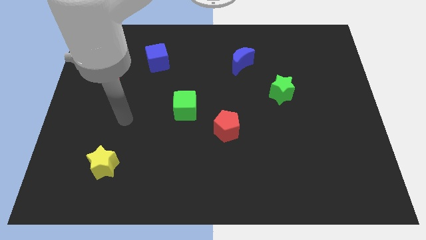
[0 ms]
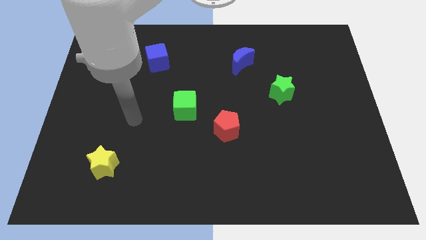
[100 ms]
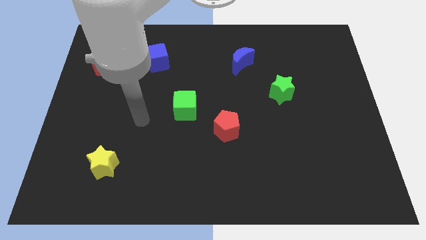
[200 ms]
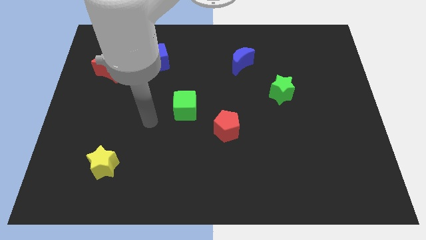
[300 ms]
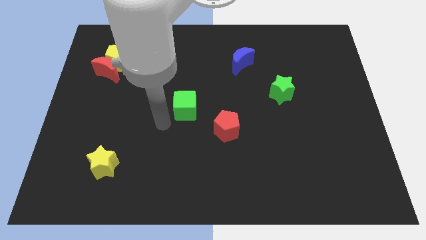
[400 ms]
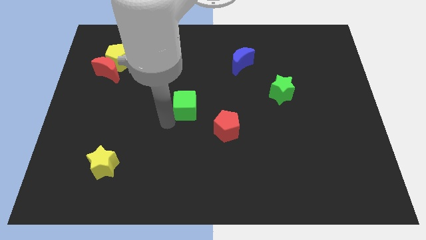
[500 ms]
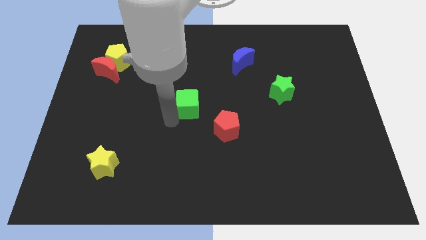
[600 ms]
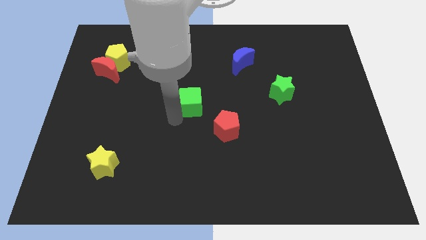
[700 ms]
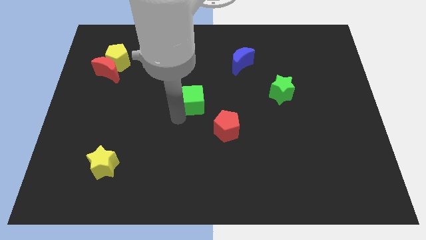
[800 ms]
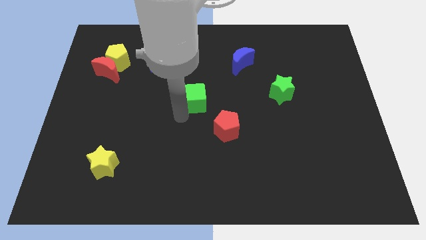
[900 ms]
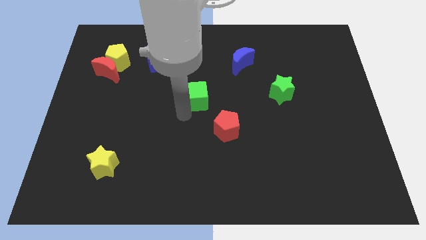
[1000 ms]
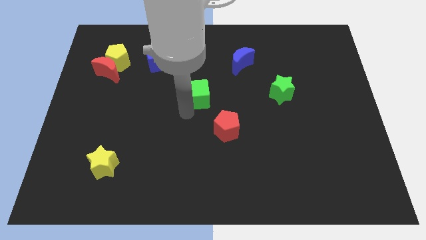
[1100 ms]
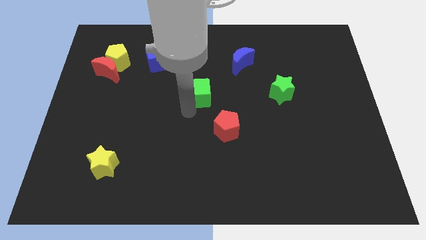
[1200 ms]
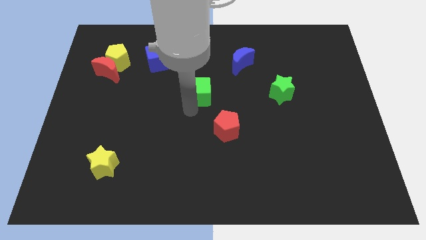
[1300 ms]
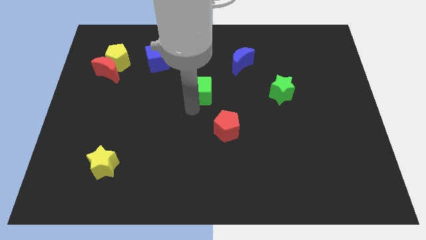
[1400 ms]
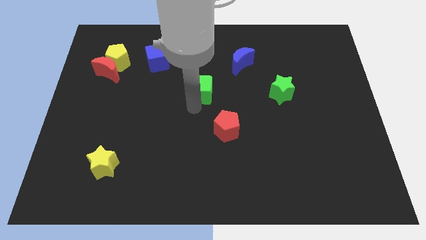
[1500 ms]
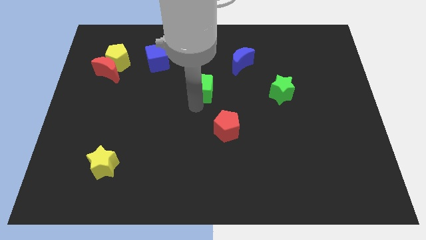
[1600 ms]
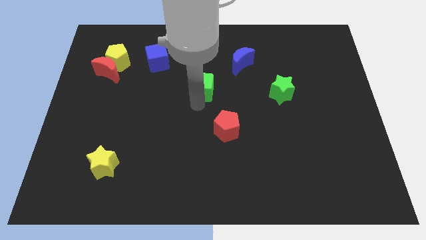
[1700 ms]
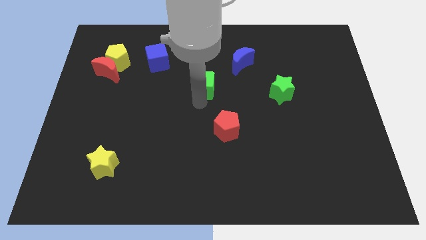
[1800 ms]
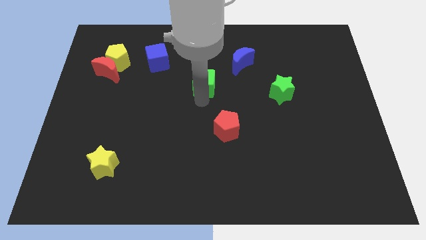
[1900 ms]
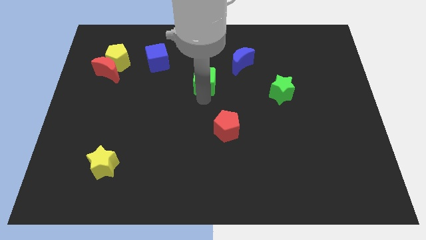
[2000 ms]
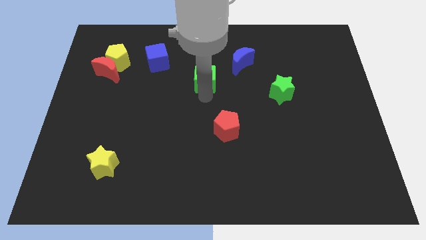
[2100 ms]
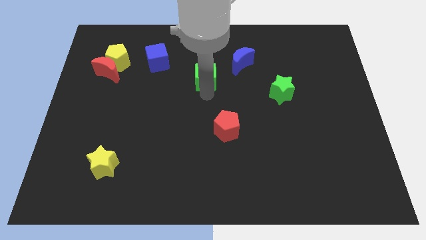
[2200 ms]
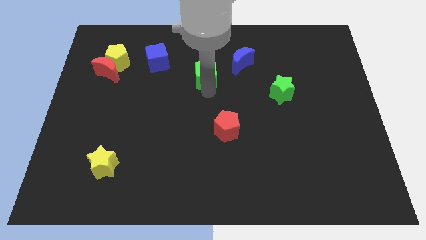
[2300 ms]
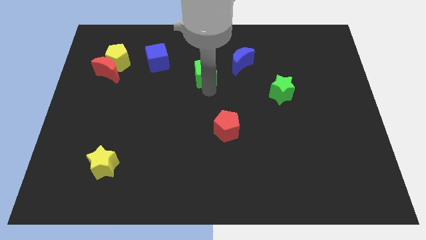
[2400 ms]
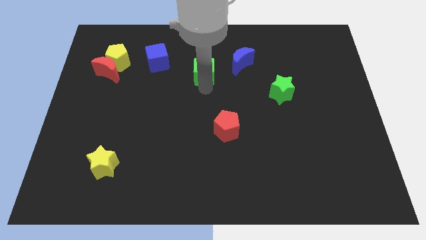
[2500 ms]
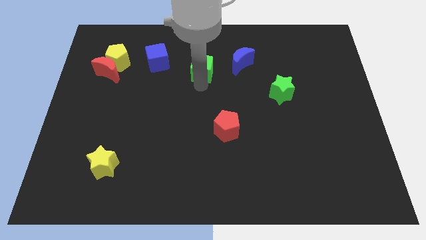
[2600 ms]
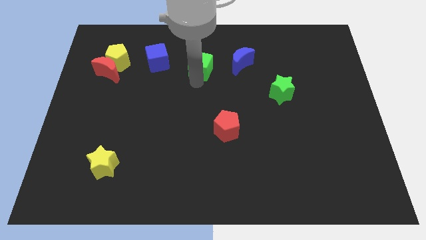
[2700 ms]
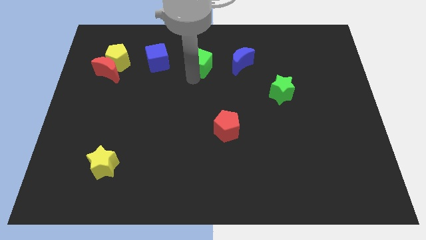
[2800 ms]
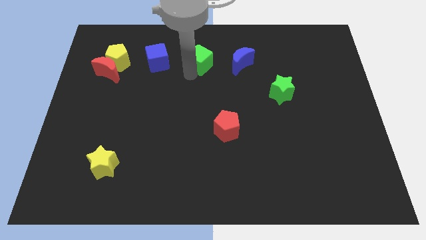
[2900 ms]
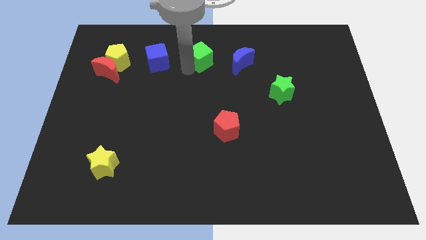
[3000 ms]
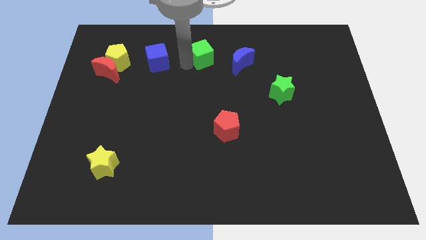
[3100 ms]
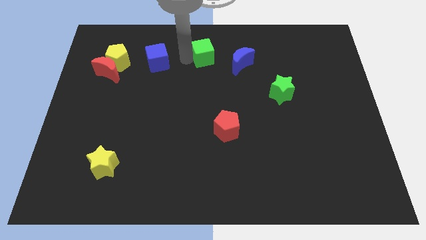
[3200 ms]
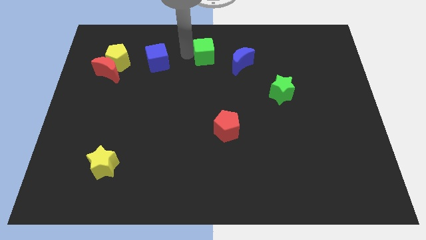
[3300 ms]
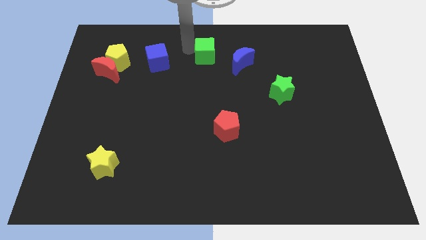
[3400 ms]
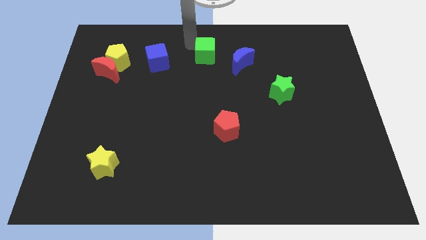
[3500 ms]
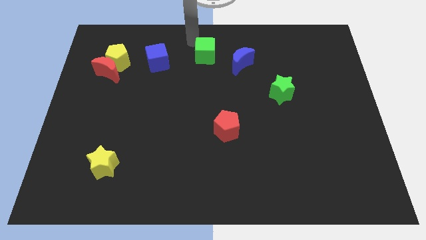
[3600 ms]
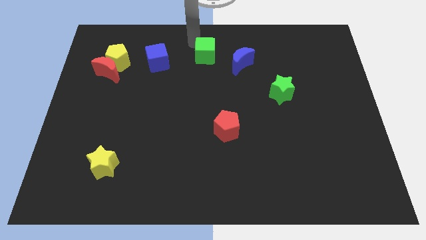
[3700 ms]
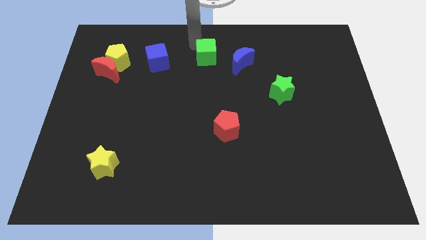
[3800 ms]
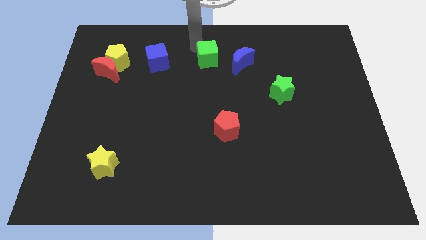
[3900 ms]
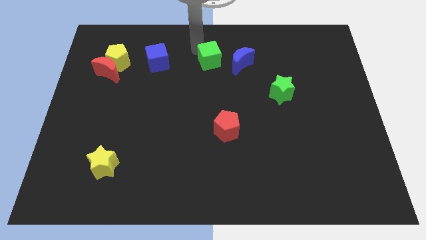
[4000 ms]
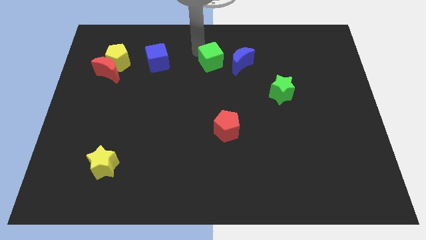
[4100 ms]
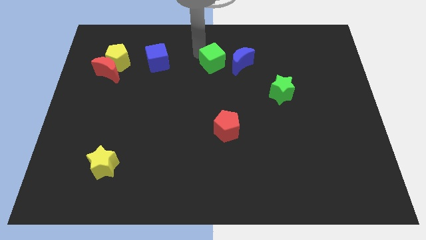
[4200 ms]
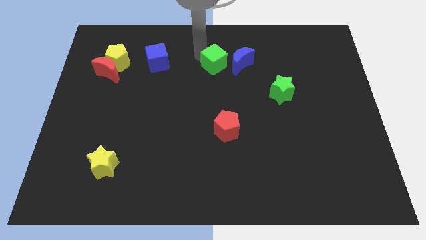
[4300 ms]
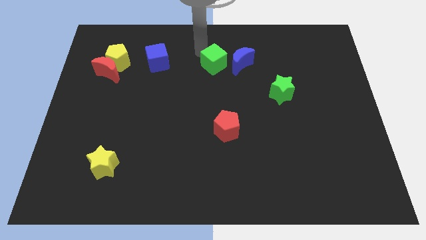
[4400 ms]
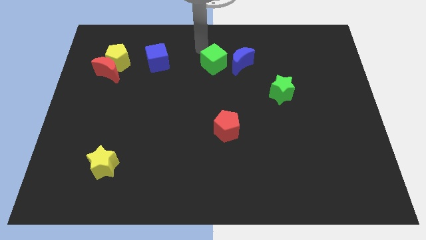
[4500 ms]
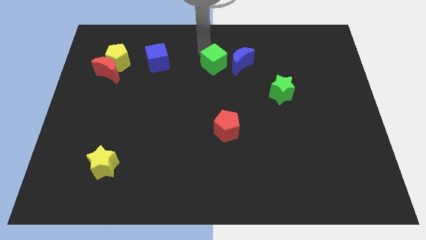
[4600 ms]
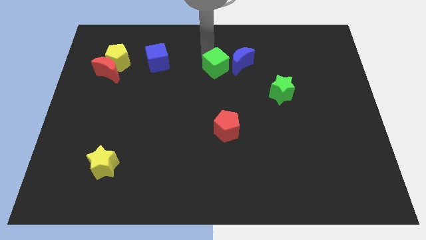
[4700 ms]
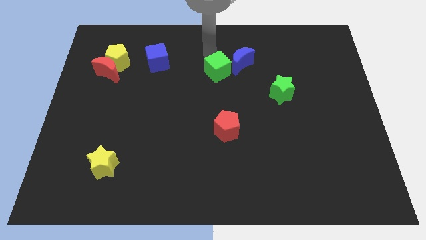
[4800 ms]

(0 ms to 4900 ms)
slide the green cube towards the blue moon

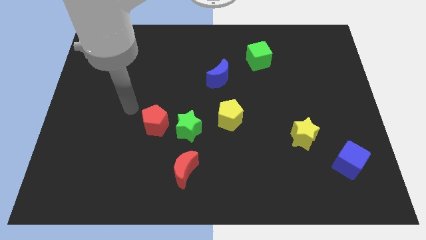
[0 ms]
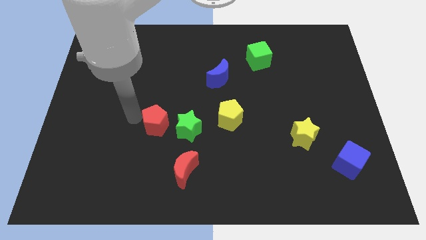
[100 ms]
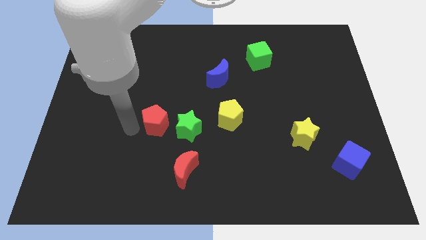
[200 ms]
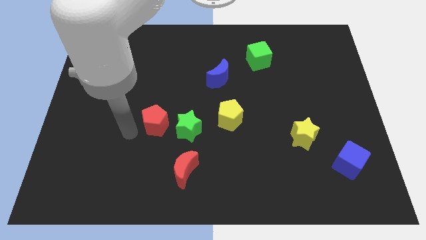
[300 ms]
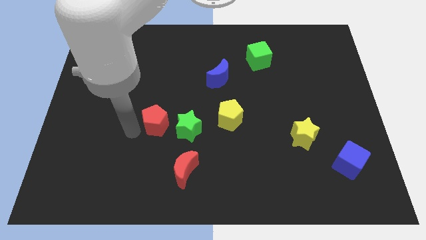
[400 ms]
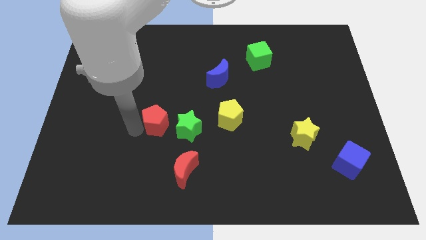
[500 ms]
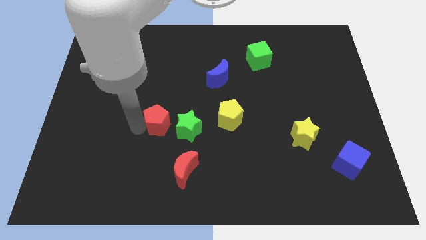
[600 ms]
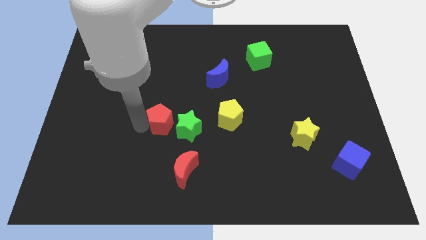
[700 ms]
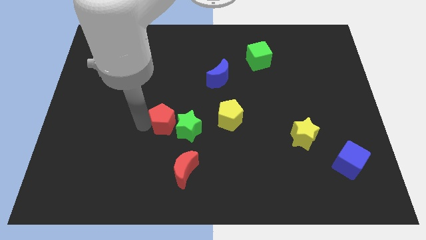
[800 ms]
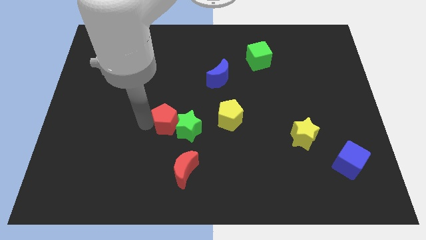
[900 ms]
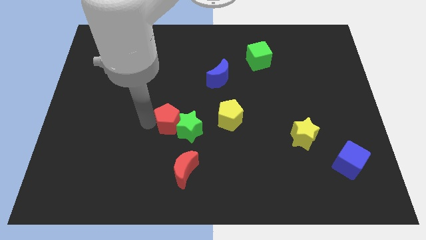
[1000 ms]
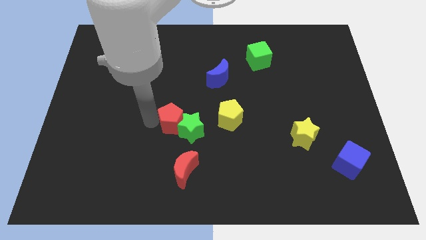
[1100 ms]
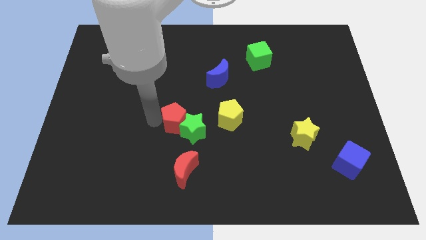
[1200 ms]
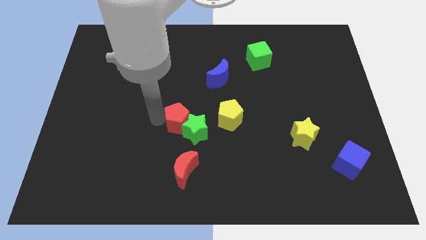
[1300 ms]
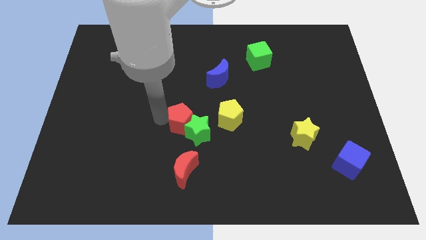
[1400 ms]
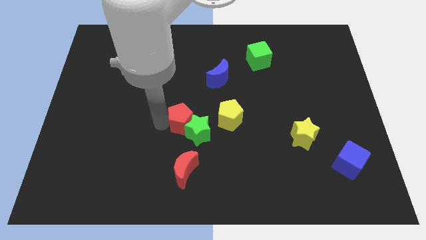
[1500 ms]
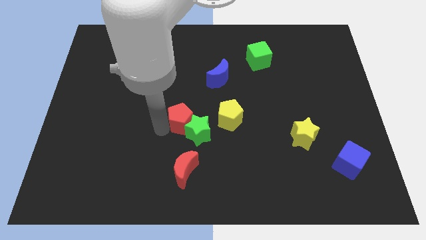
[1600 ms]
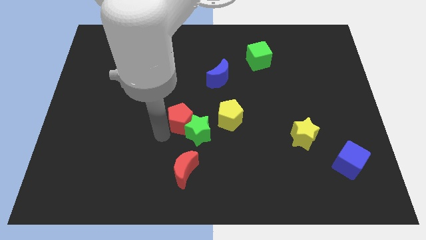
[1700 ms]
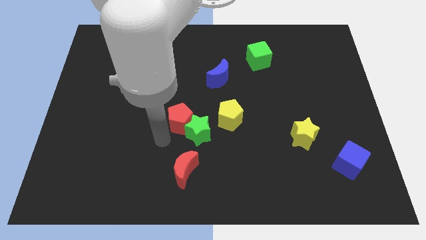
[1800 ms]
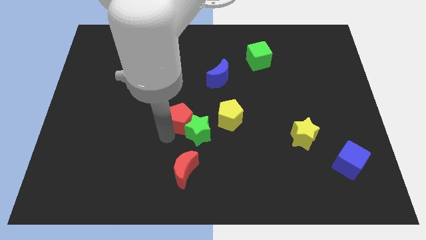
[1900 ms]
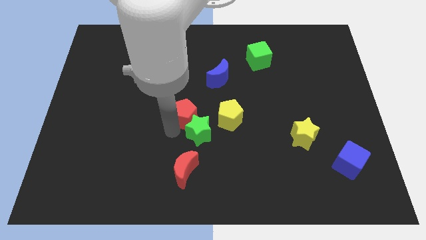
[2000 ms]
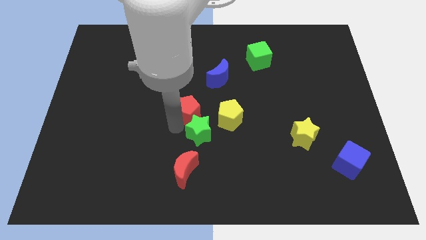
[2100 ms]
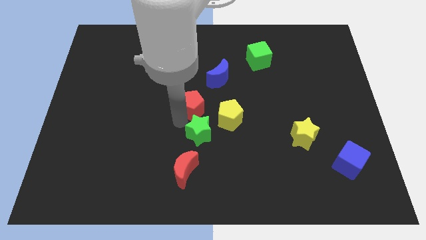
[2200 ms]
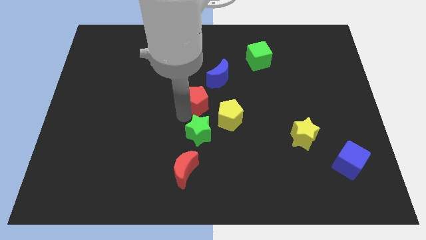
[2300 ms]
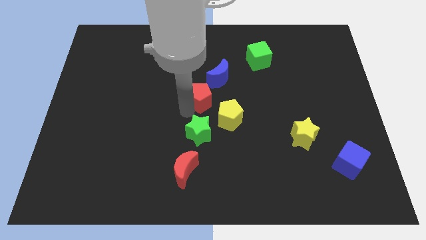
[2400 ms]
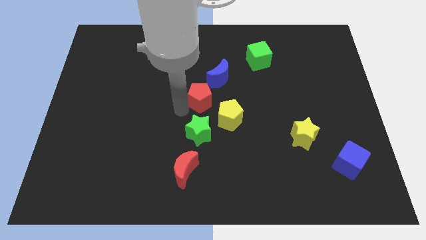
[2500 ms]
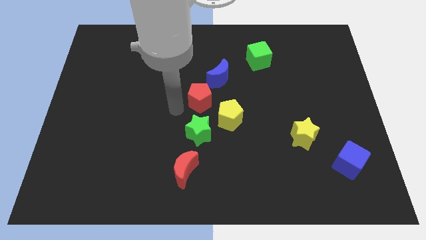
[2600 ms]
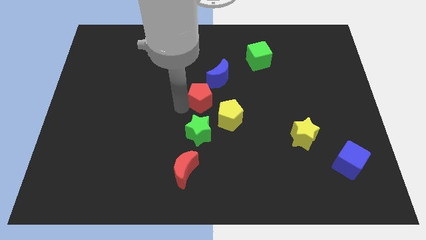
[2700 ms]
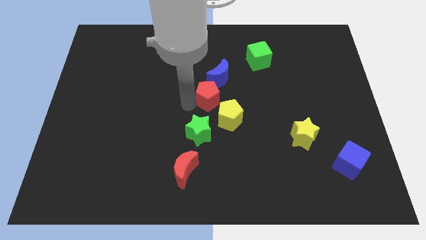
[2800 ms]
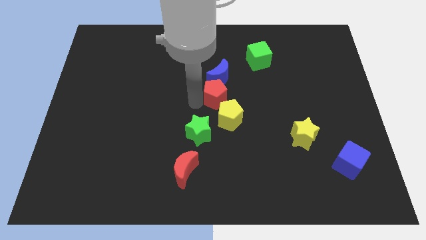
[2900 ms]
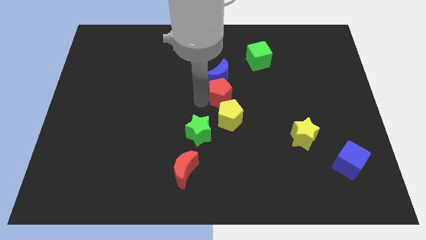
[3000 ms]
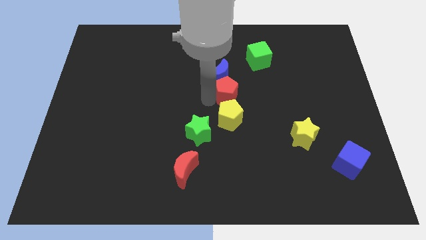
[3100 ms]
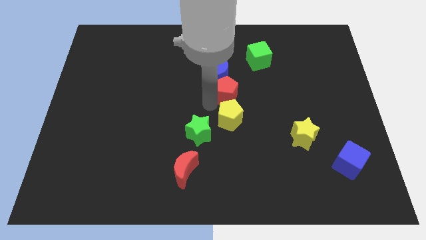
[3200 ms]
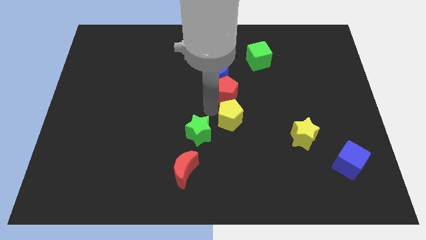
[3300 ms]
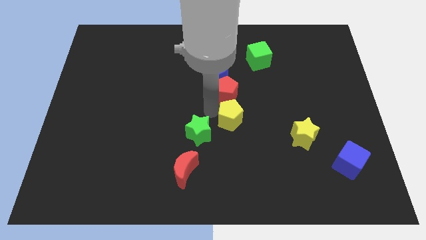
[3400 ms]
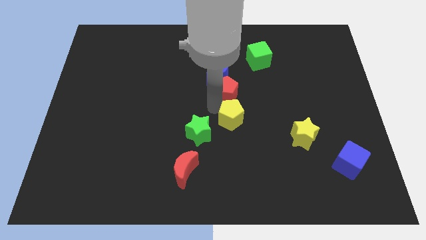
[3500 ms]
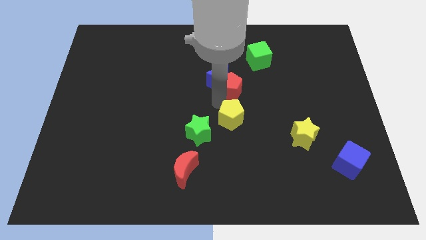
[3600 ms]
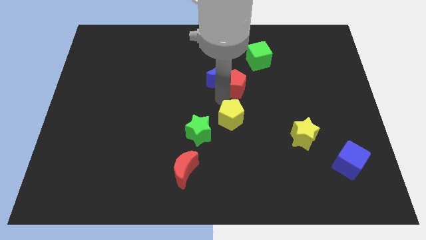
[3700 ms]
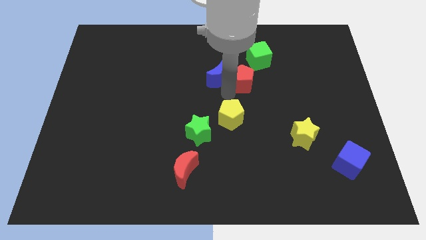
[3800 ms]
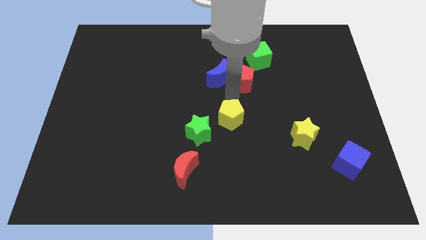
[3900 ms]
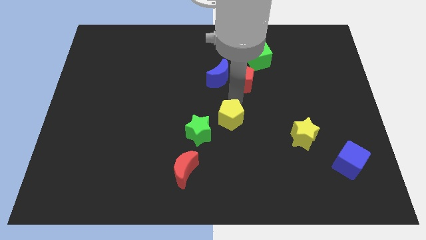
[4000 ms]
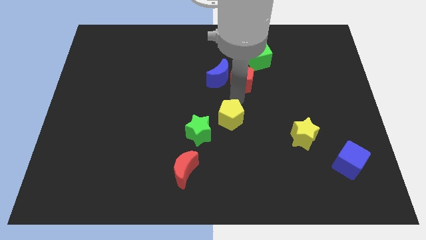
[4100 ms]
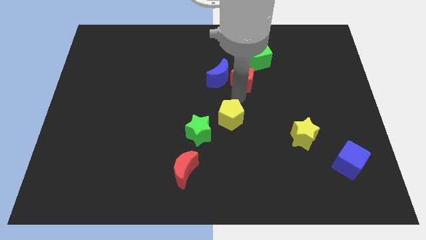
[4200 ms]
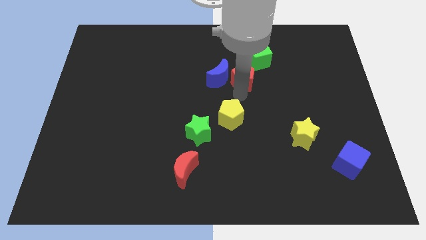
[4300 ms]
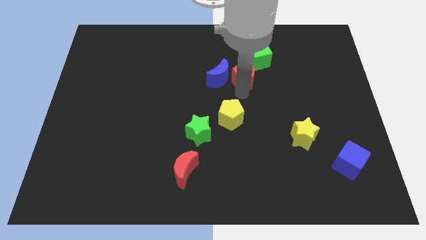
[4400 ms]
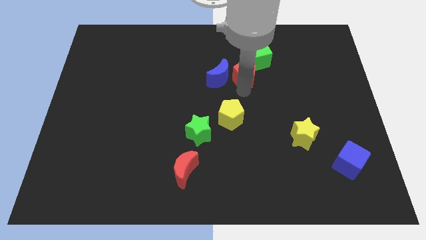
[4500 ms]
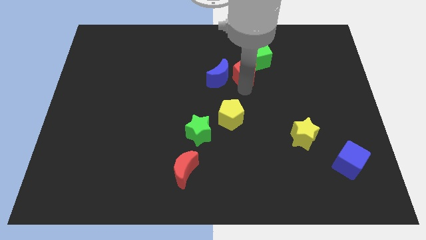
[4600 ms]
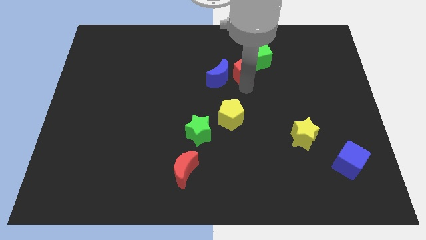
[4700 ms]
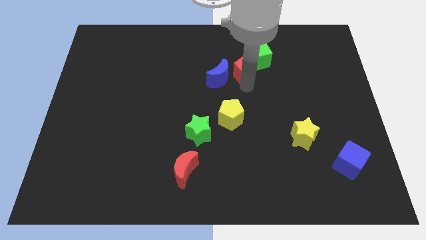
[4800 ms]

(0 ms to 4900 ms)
push the red pentagon towards the green cube
